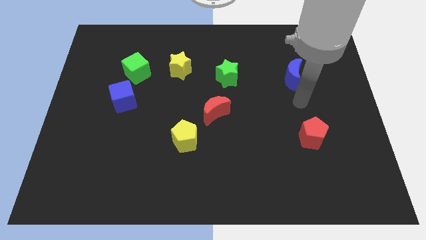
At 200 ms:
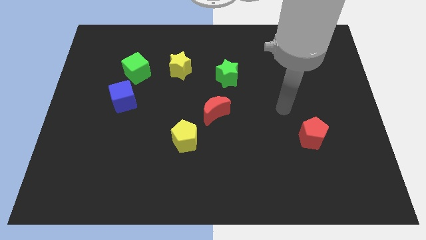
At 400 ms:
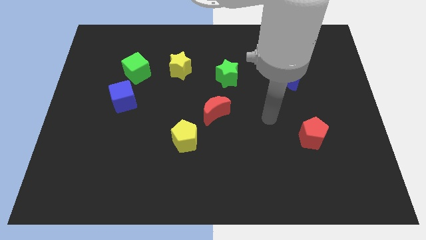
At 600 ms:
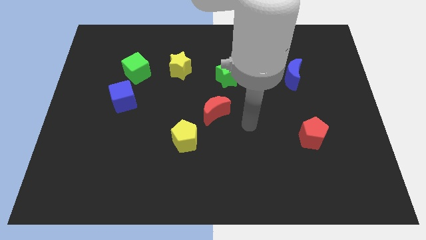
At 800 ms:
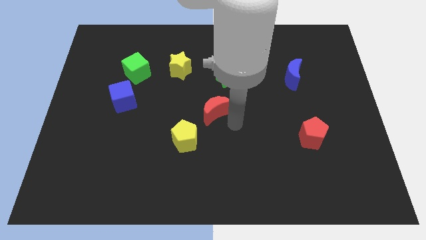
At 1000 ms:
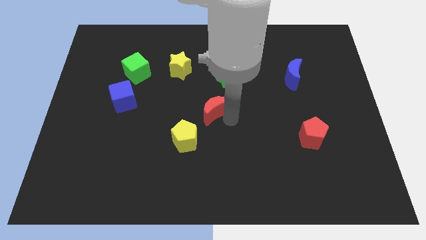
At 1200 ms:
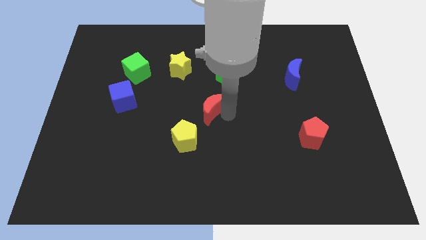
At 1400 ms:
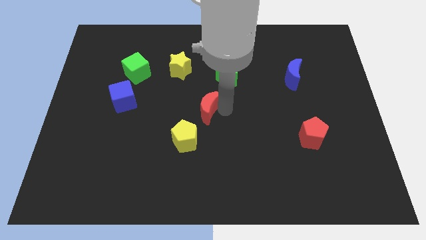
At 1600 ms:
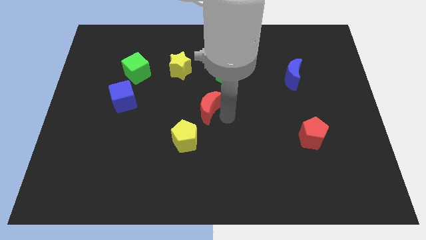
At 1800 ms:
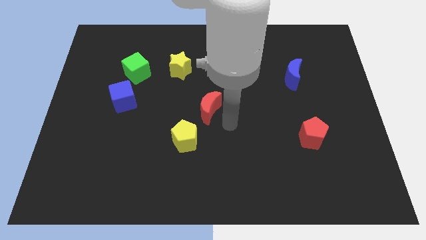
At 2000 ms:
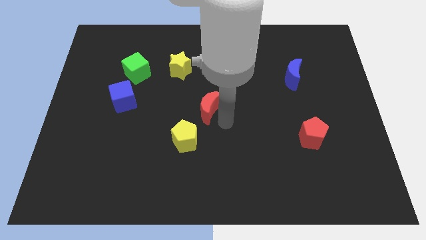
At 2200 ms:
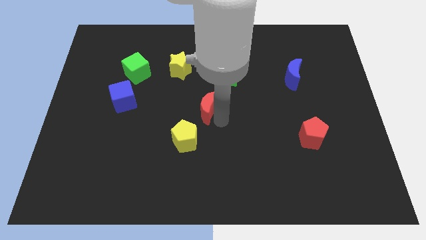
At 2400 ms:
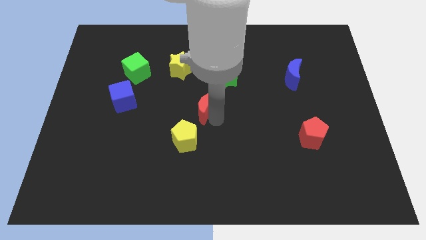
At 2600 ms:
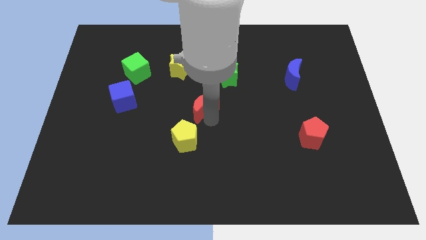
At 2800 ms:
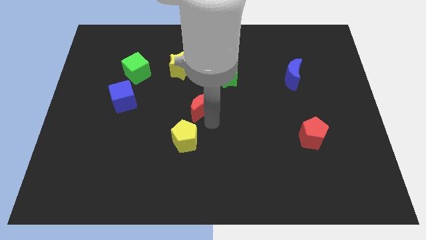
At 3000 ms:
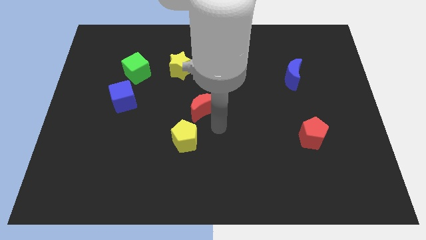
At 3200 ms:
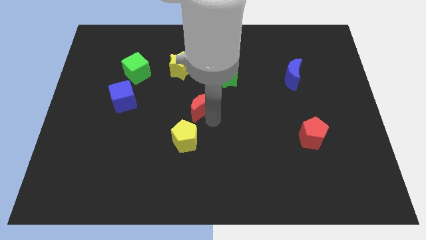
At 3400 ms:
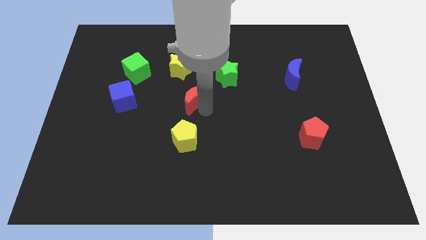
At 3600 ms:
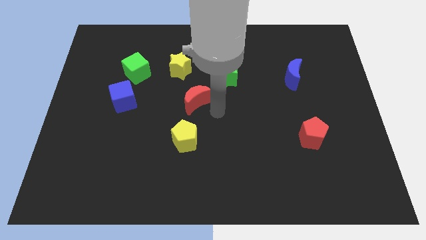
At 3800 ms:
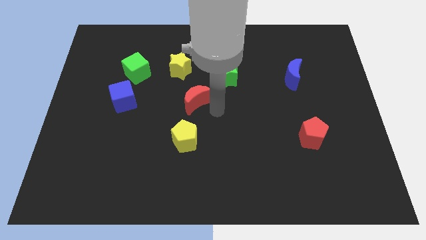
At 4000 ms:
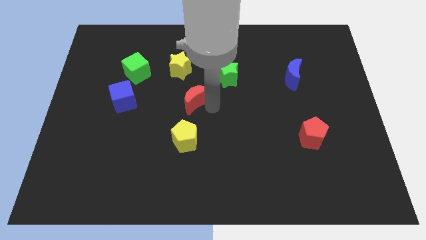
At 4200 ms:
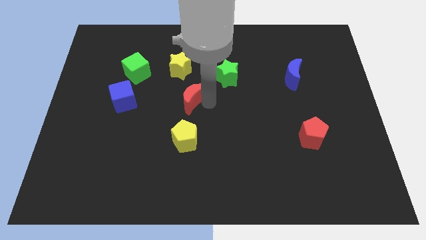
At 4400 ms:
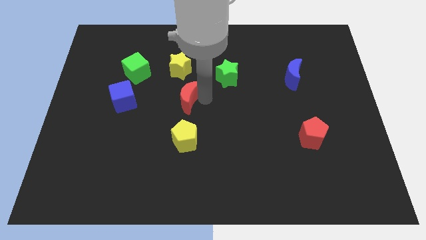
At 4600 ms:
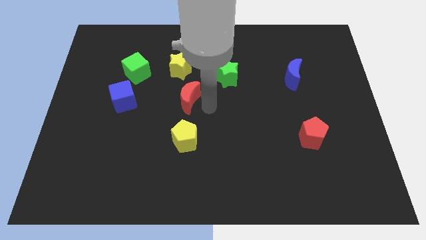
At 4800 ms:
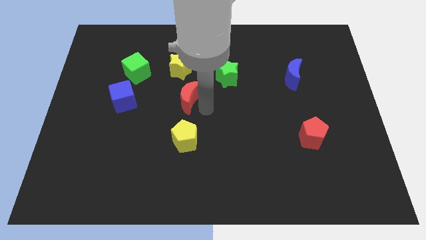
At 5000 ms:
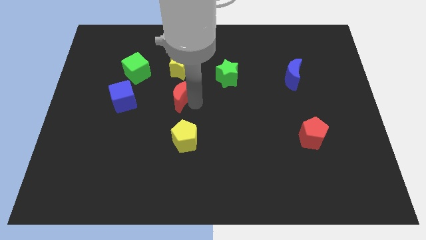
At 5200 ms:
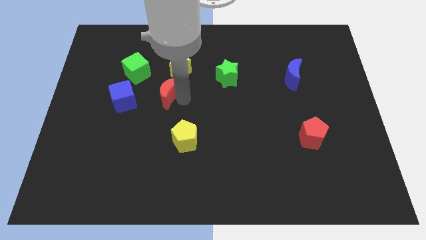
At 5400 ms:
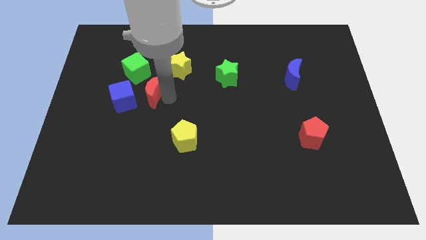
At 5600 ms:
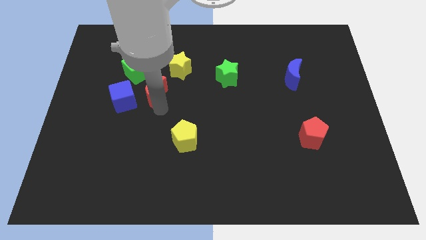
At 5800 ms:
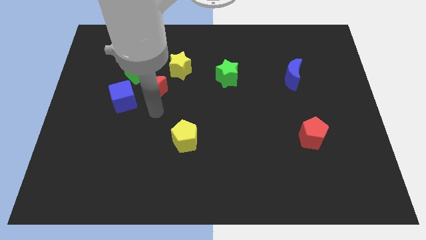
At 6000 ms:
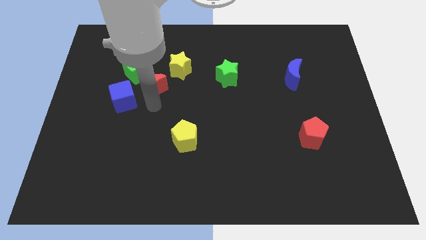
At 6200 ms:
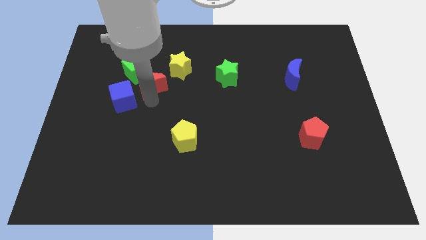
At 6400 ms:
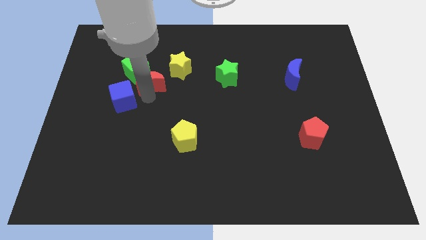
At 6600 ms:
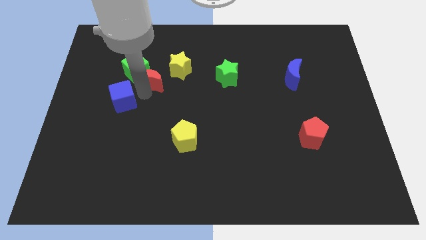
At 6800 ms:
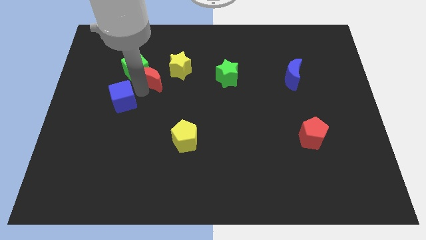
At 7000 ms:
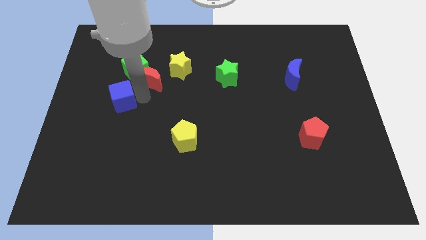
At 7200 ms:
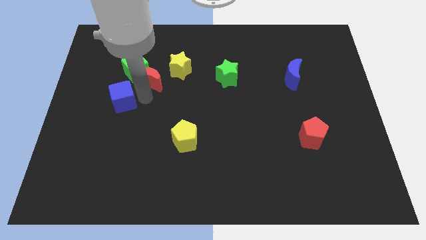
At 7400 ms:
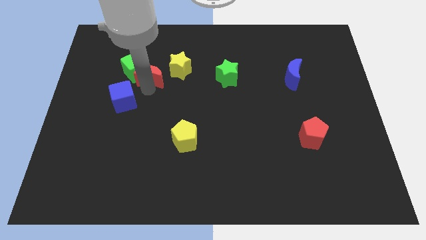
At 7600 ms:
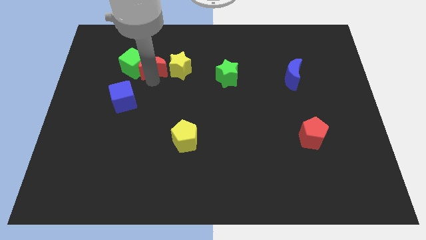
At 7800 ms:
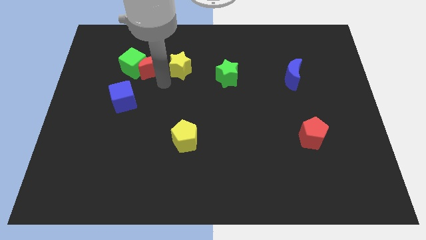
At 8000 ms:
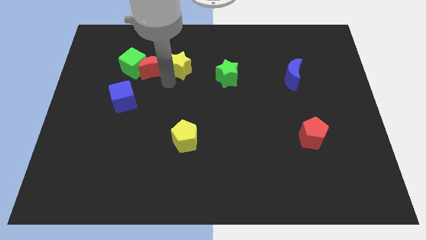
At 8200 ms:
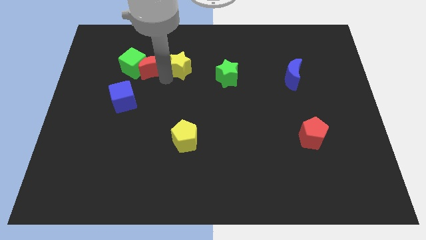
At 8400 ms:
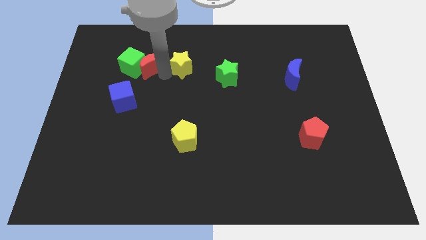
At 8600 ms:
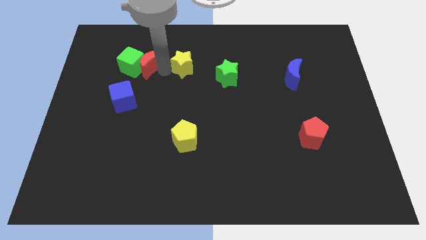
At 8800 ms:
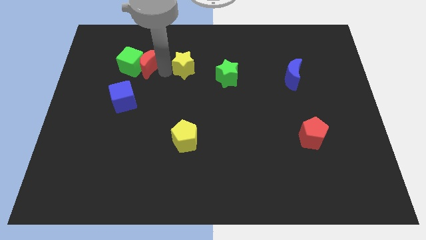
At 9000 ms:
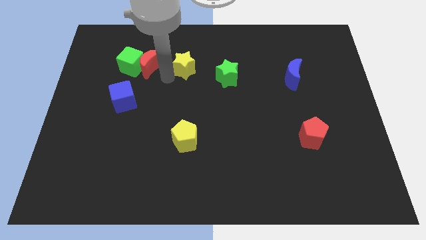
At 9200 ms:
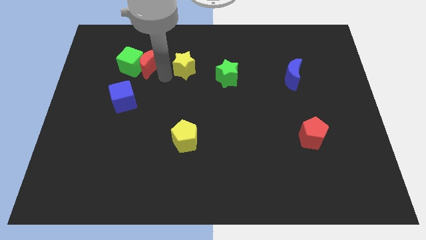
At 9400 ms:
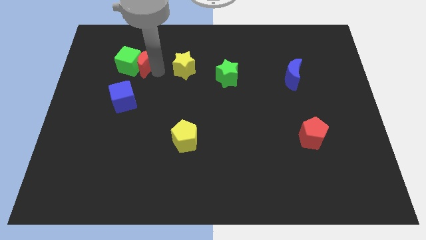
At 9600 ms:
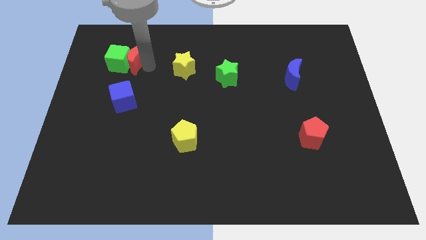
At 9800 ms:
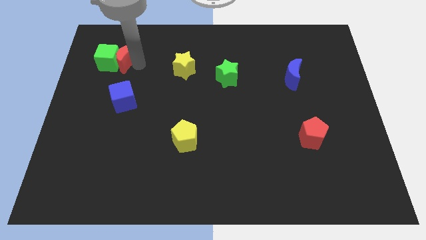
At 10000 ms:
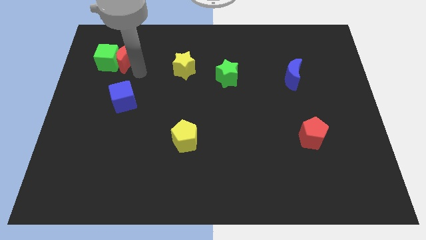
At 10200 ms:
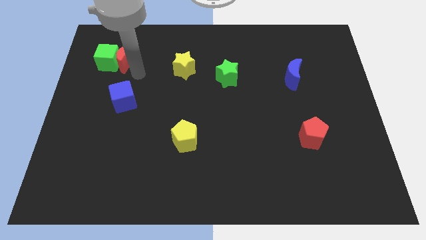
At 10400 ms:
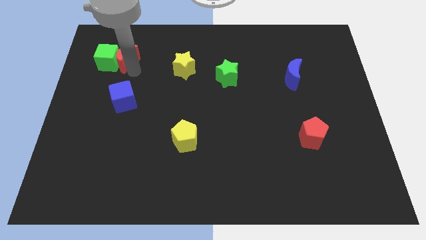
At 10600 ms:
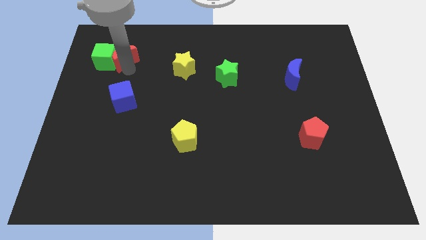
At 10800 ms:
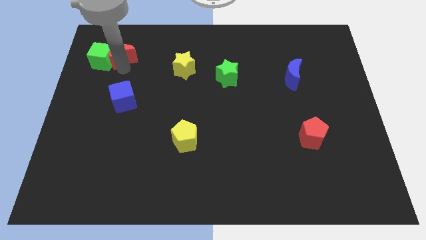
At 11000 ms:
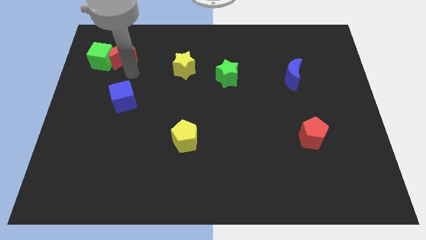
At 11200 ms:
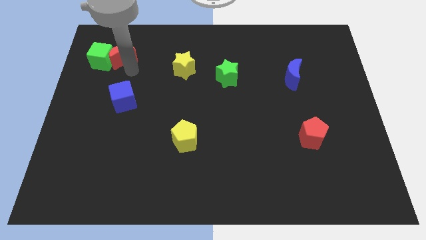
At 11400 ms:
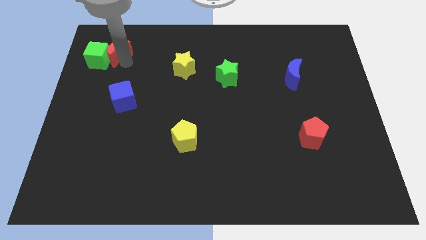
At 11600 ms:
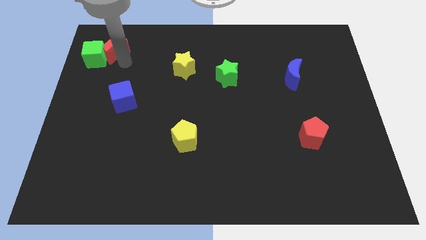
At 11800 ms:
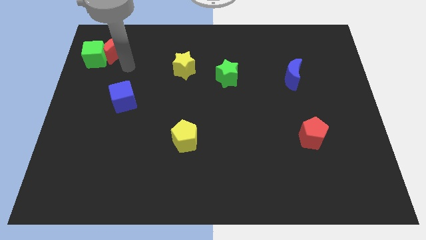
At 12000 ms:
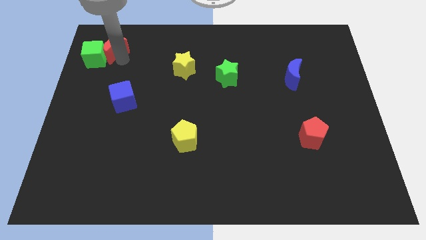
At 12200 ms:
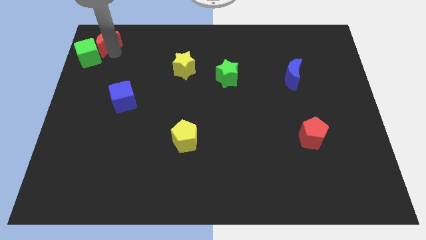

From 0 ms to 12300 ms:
slide the red moon to the top left corner

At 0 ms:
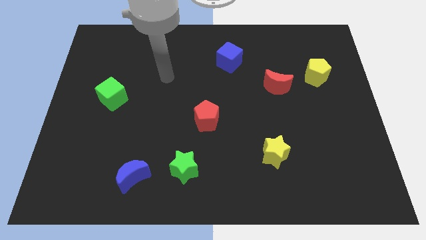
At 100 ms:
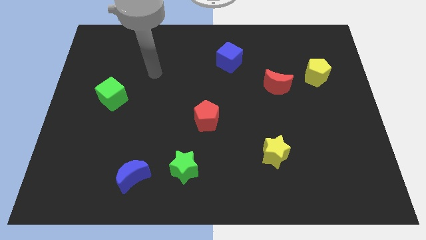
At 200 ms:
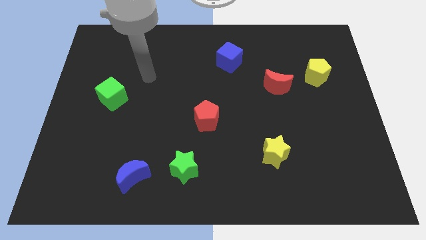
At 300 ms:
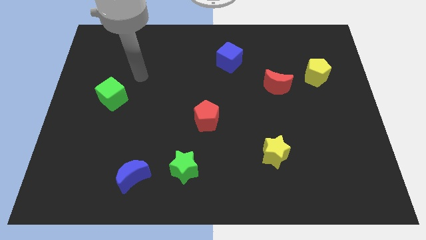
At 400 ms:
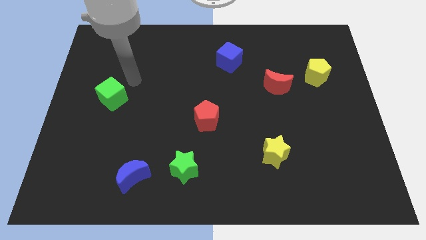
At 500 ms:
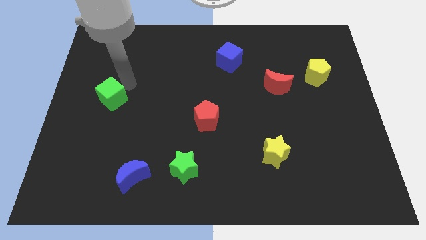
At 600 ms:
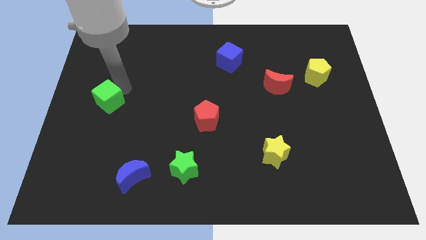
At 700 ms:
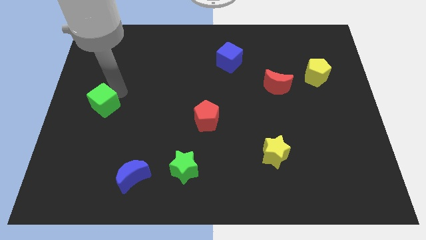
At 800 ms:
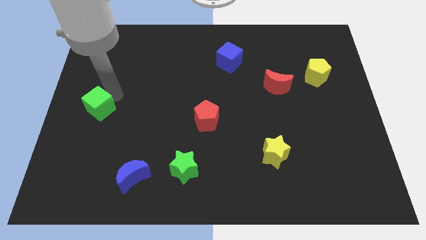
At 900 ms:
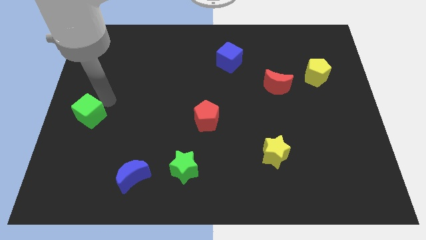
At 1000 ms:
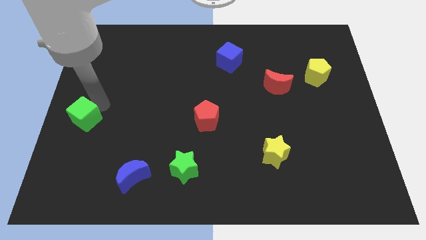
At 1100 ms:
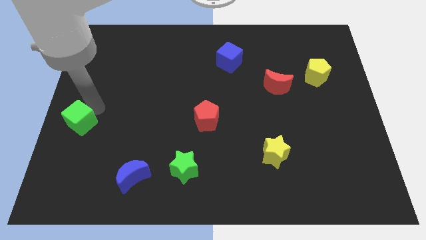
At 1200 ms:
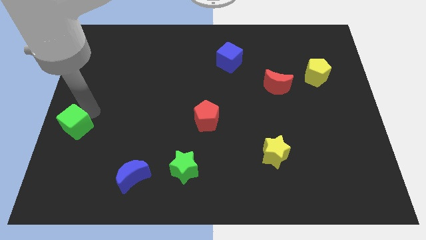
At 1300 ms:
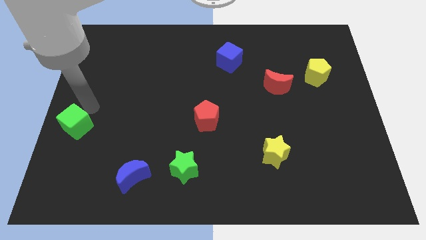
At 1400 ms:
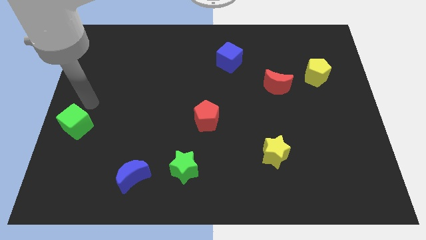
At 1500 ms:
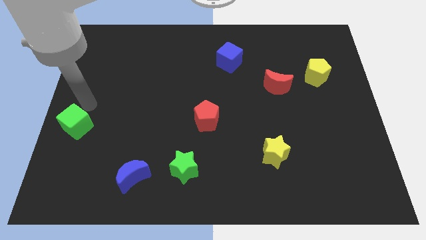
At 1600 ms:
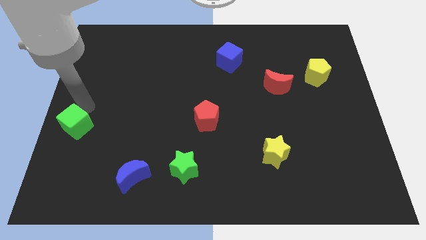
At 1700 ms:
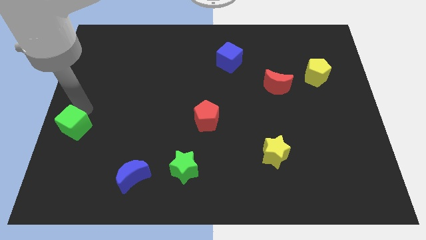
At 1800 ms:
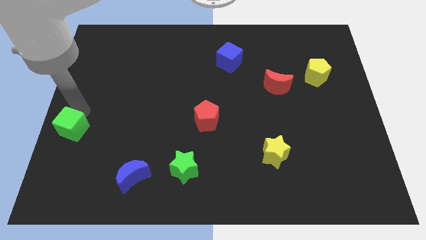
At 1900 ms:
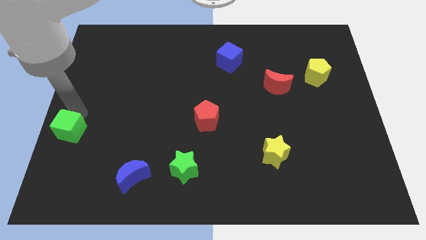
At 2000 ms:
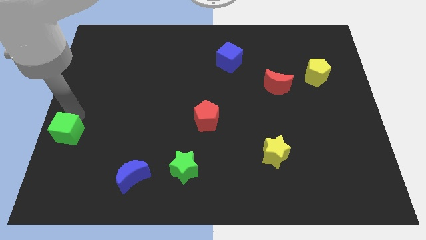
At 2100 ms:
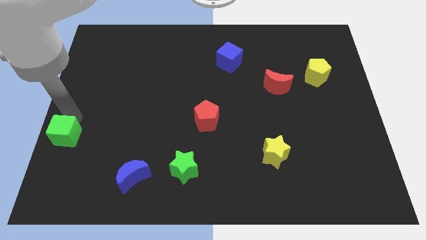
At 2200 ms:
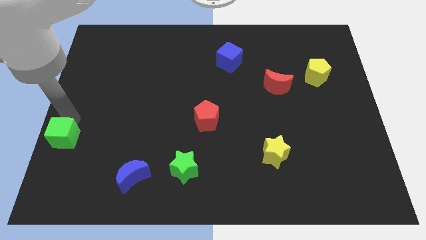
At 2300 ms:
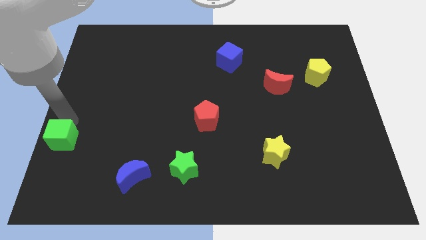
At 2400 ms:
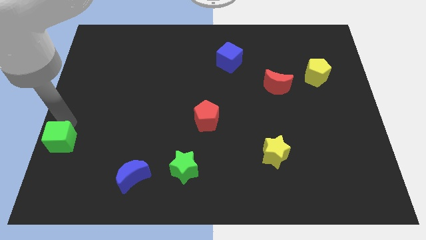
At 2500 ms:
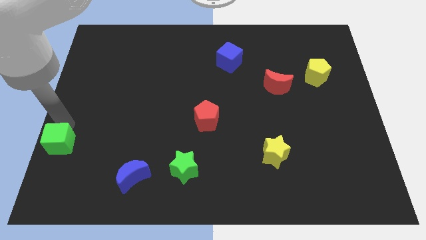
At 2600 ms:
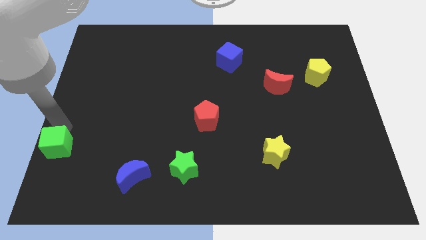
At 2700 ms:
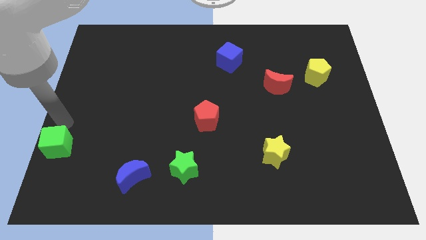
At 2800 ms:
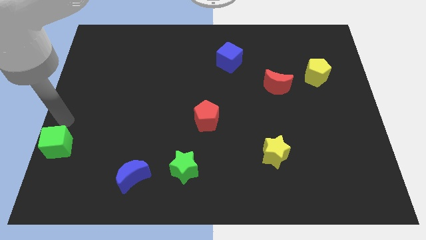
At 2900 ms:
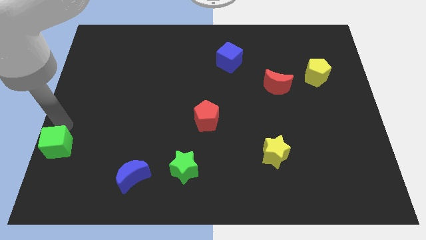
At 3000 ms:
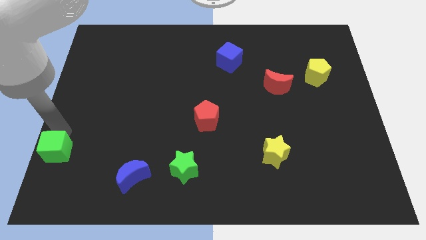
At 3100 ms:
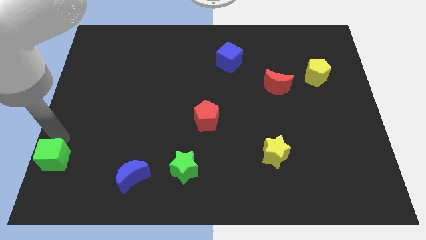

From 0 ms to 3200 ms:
slide the green cube to the lower left corner
